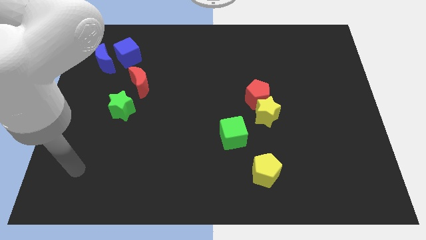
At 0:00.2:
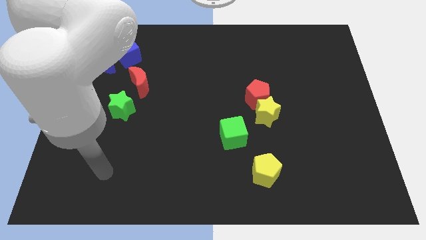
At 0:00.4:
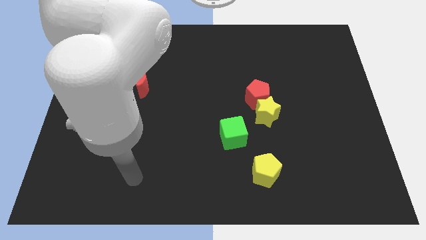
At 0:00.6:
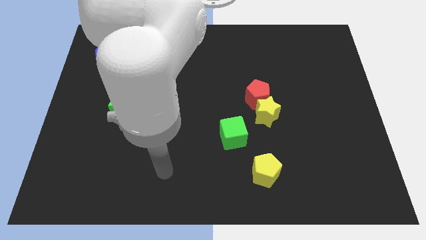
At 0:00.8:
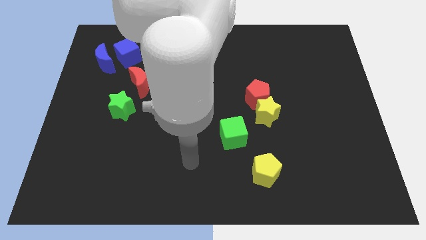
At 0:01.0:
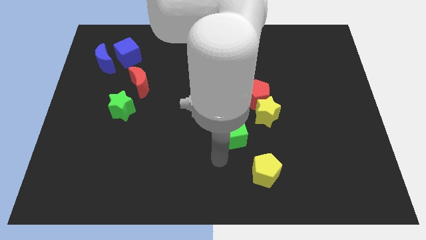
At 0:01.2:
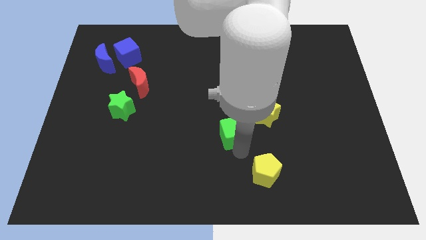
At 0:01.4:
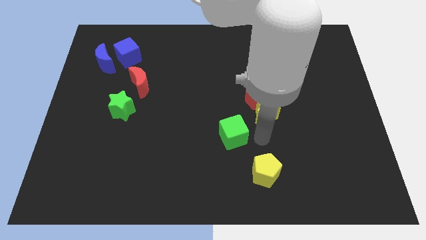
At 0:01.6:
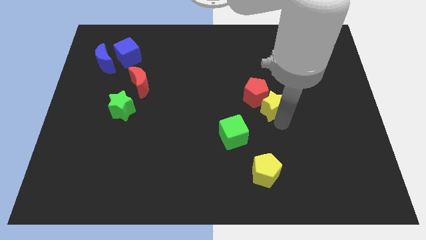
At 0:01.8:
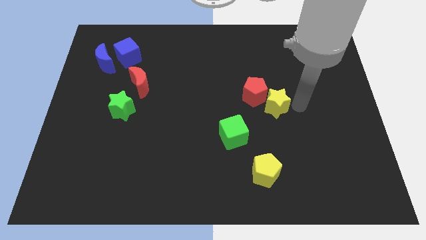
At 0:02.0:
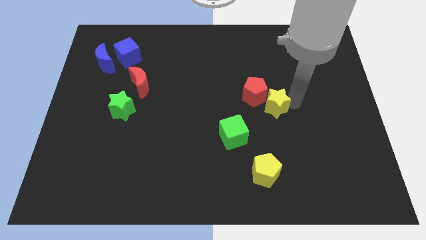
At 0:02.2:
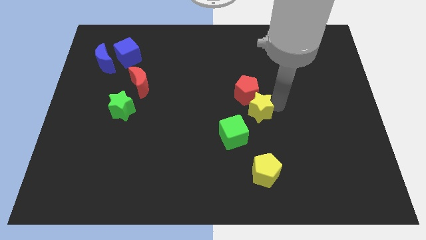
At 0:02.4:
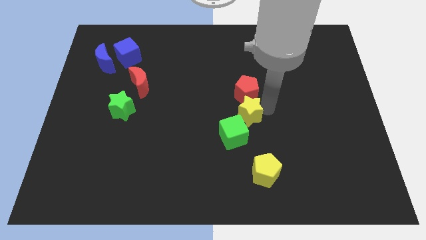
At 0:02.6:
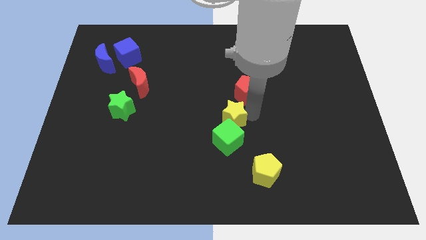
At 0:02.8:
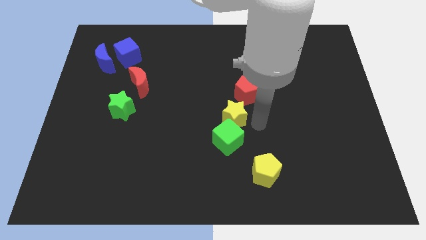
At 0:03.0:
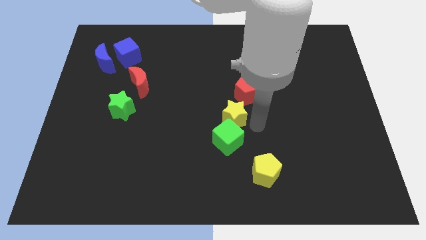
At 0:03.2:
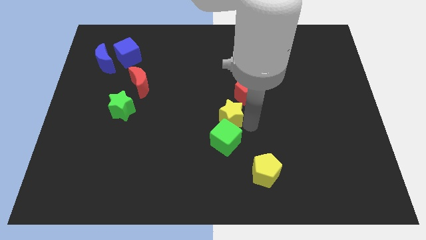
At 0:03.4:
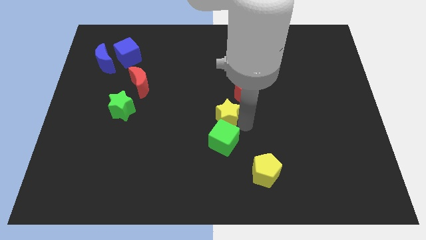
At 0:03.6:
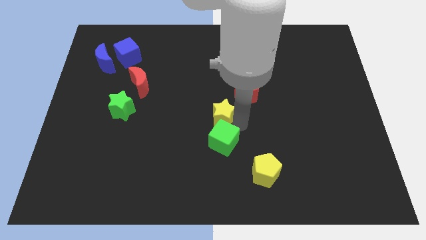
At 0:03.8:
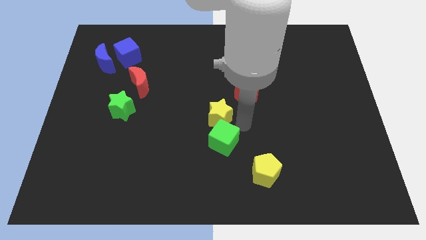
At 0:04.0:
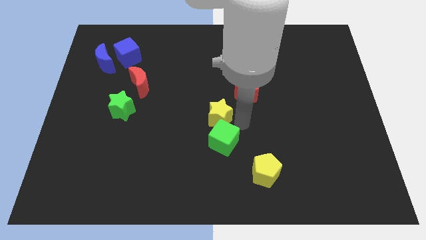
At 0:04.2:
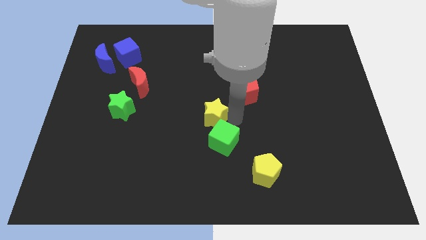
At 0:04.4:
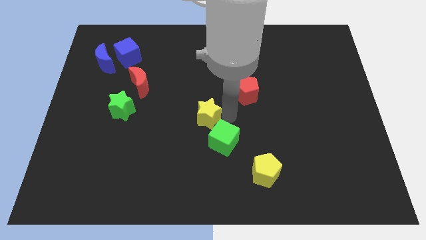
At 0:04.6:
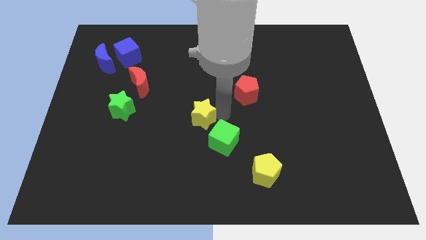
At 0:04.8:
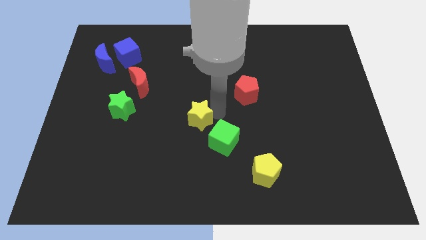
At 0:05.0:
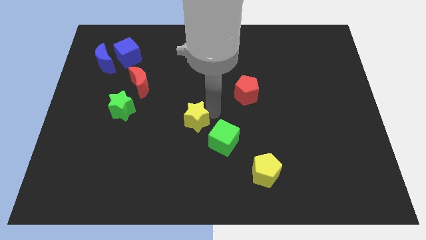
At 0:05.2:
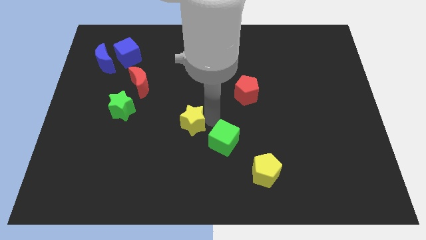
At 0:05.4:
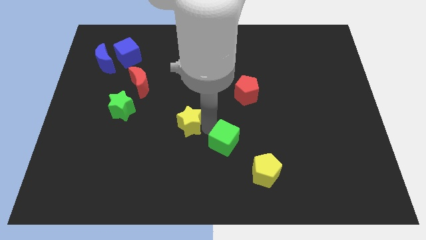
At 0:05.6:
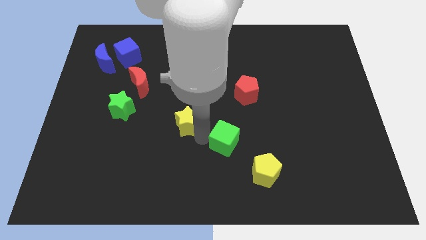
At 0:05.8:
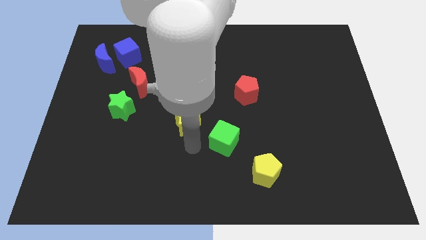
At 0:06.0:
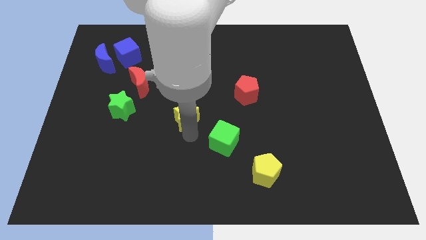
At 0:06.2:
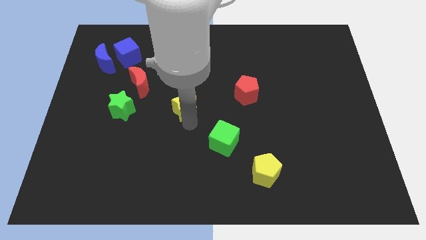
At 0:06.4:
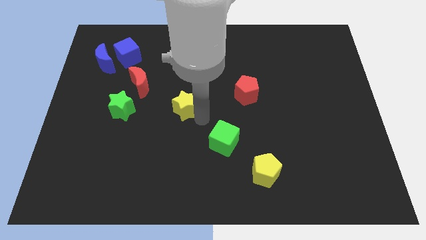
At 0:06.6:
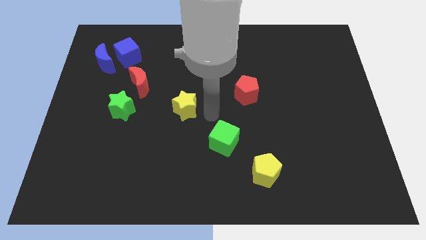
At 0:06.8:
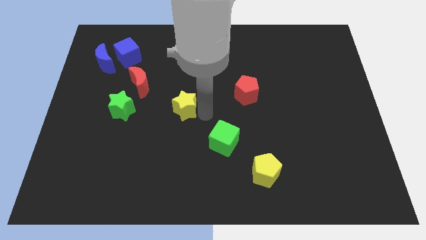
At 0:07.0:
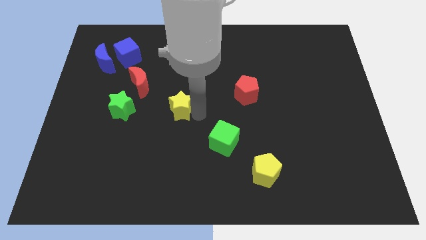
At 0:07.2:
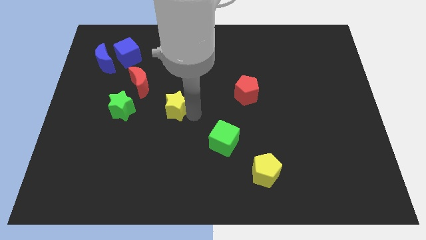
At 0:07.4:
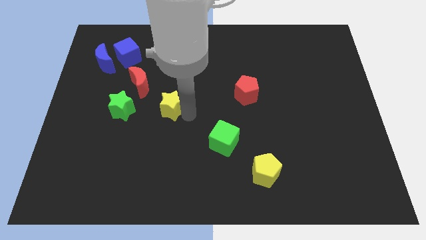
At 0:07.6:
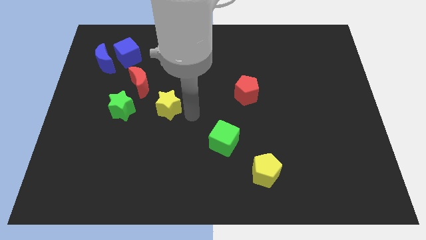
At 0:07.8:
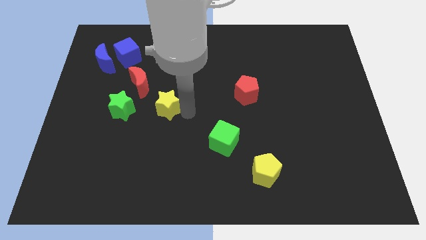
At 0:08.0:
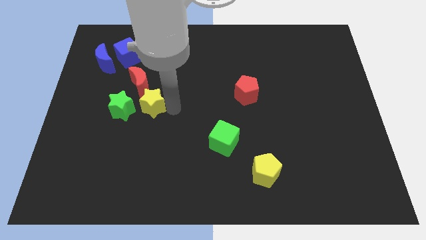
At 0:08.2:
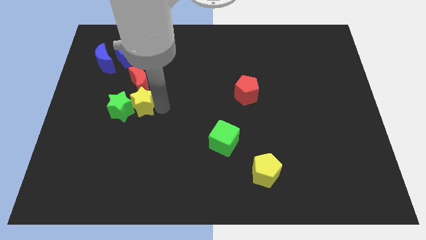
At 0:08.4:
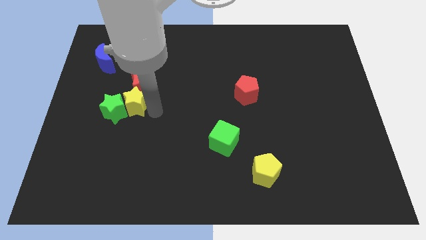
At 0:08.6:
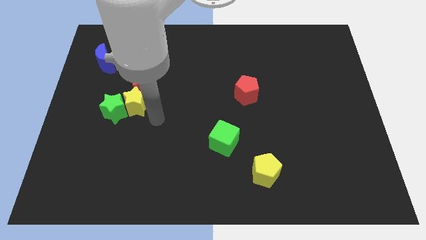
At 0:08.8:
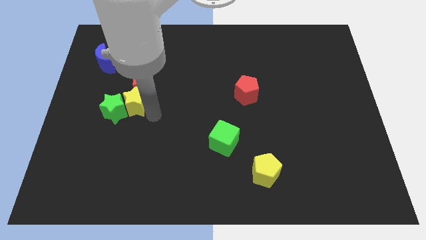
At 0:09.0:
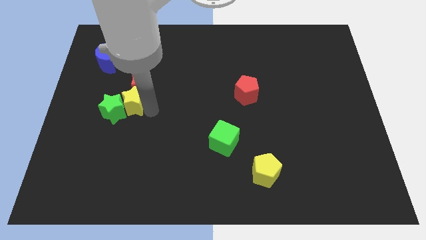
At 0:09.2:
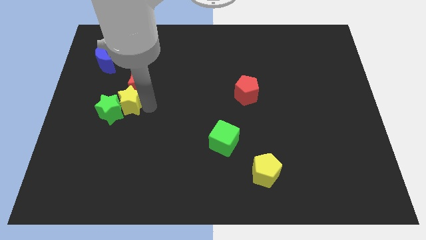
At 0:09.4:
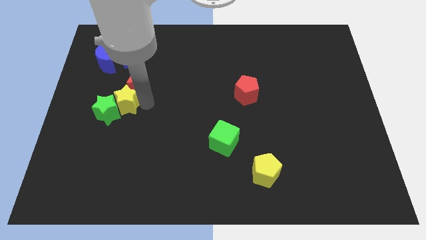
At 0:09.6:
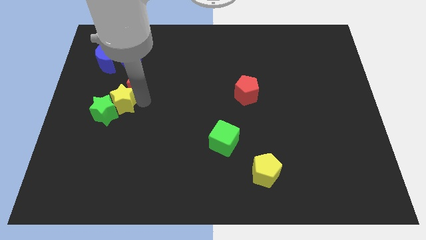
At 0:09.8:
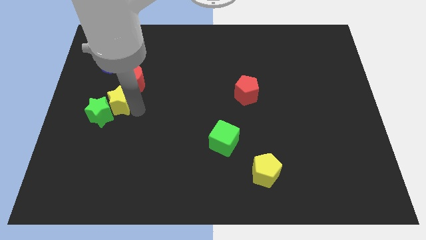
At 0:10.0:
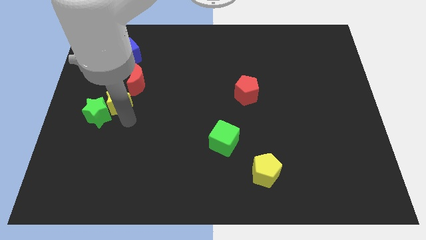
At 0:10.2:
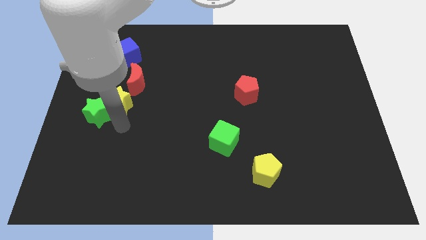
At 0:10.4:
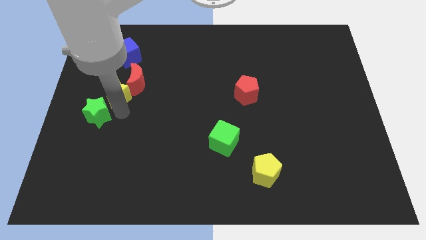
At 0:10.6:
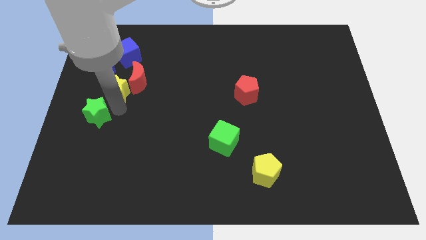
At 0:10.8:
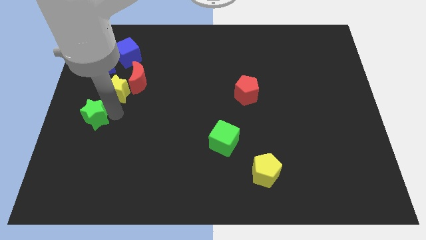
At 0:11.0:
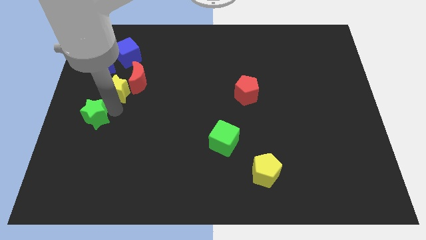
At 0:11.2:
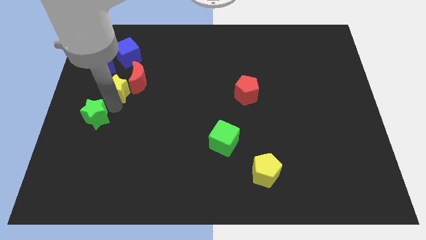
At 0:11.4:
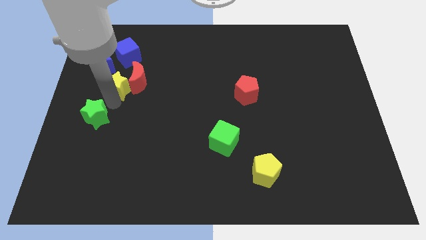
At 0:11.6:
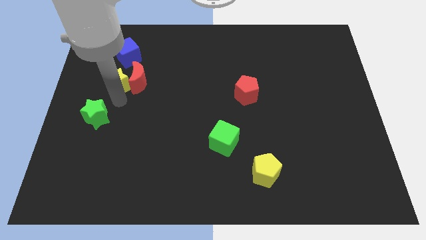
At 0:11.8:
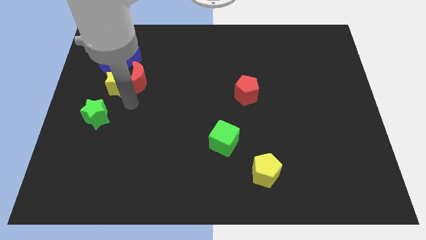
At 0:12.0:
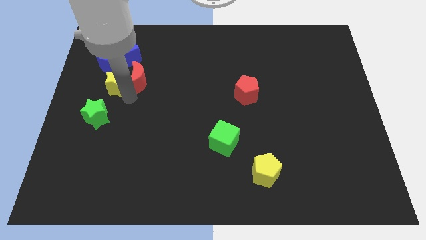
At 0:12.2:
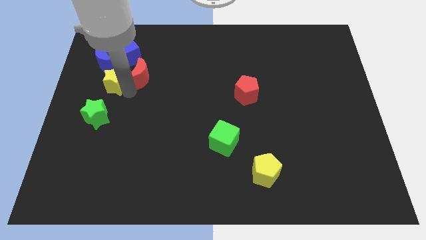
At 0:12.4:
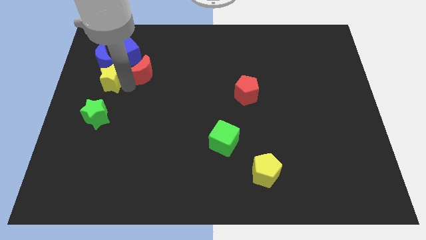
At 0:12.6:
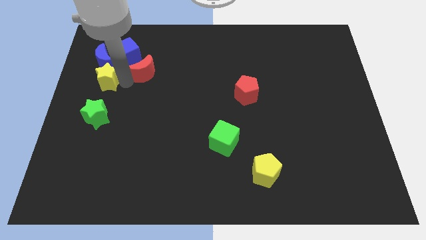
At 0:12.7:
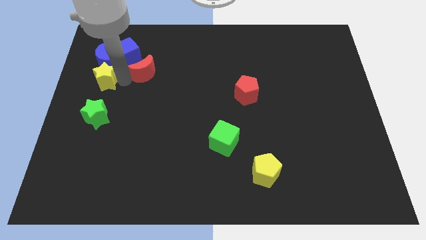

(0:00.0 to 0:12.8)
push the yellow star close to the blue moon

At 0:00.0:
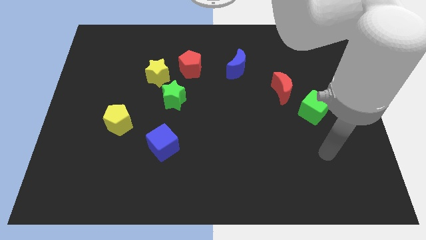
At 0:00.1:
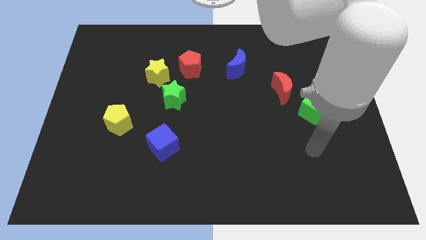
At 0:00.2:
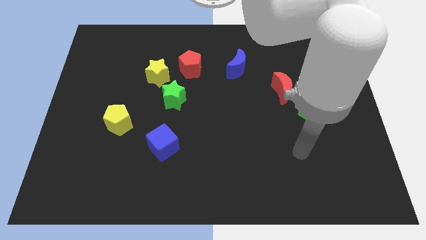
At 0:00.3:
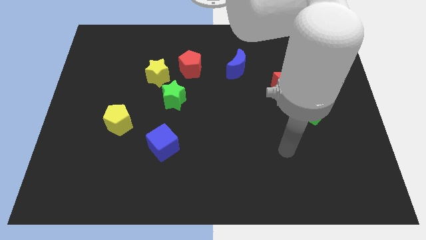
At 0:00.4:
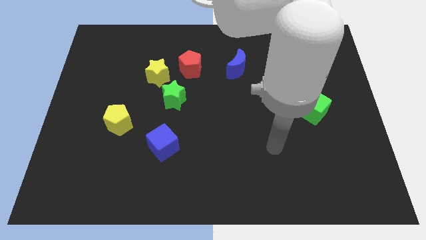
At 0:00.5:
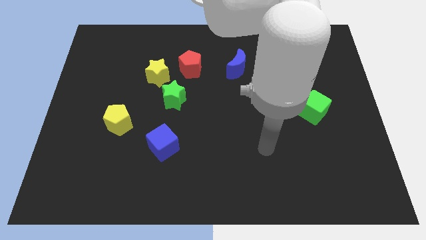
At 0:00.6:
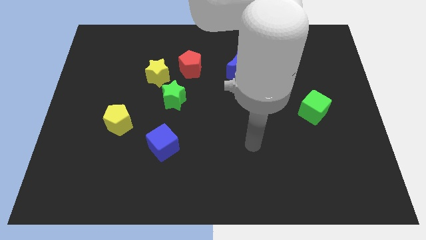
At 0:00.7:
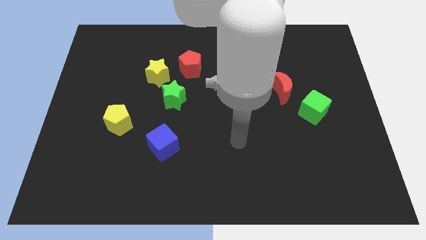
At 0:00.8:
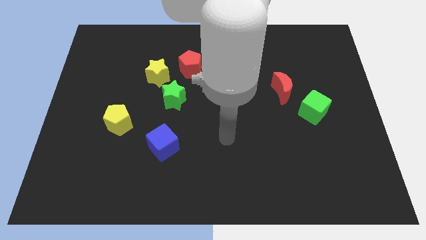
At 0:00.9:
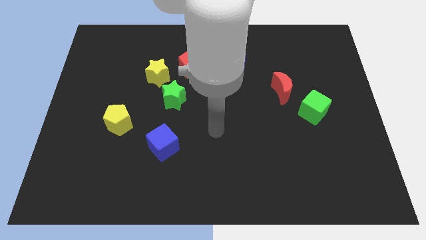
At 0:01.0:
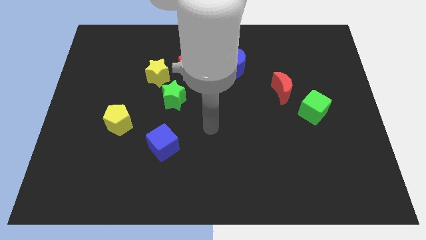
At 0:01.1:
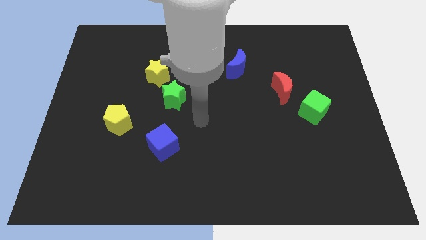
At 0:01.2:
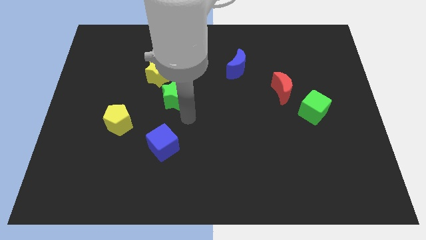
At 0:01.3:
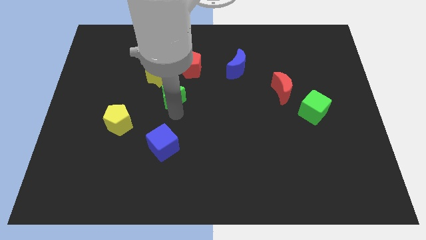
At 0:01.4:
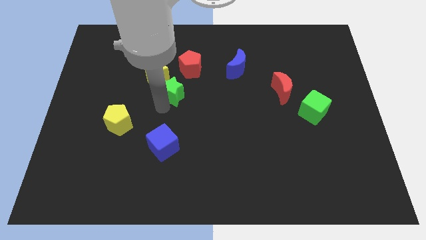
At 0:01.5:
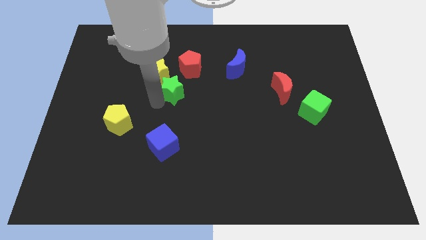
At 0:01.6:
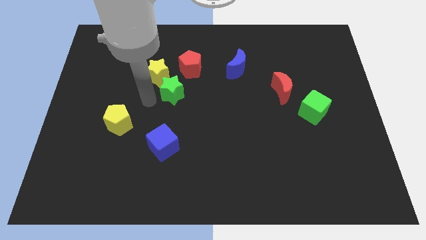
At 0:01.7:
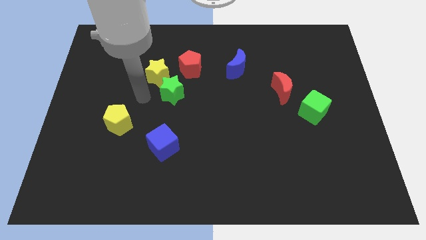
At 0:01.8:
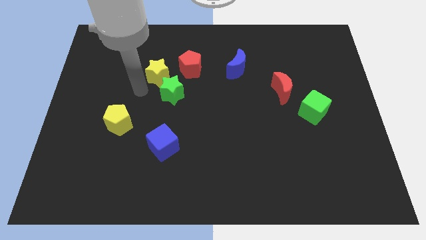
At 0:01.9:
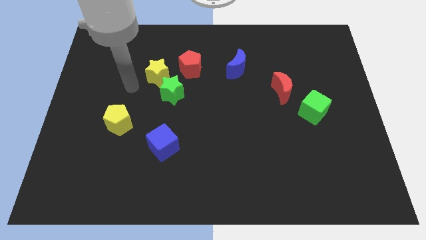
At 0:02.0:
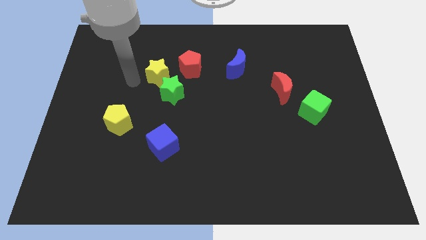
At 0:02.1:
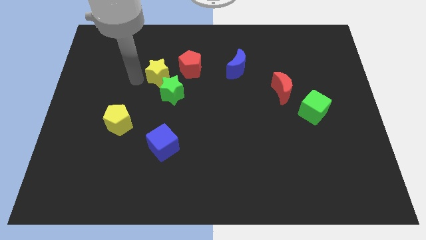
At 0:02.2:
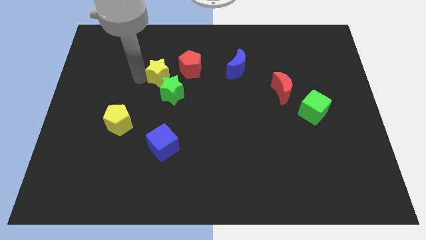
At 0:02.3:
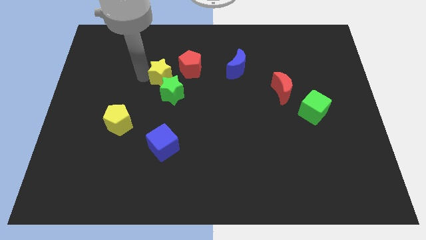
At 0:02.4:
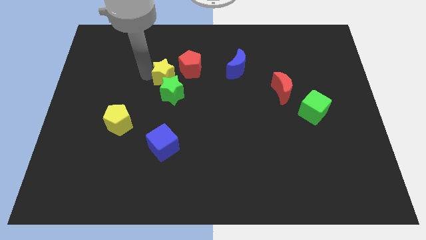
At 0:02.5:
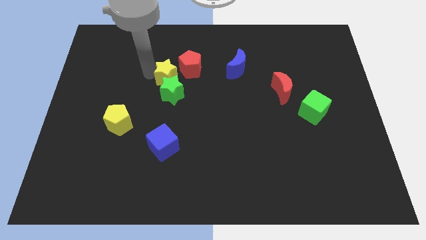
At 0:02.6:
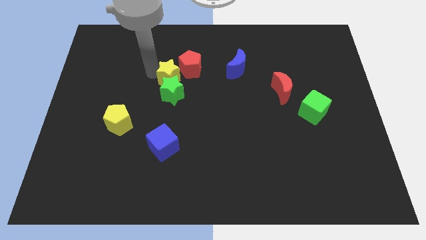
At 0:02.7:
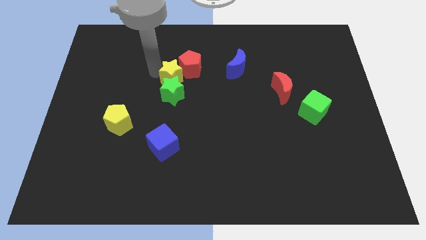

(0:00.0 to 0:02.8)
move the yellow star close to the red pentagon
